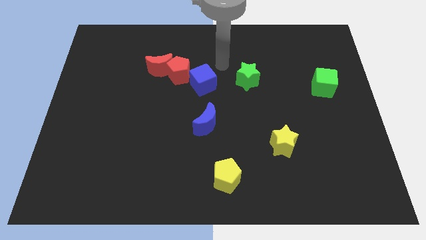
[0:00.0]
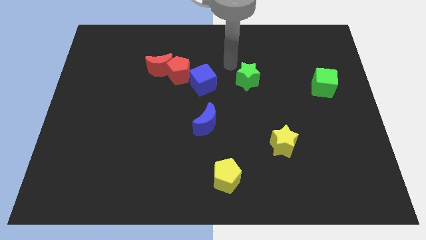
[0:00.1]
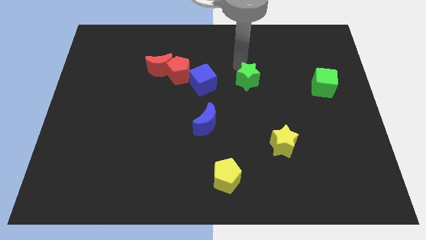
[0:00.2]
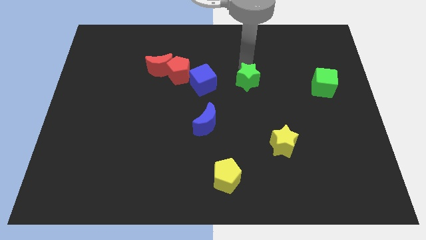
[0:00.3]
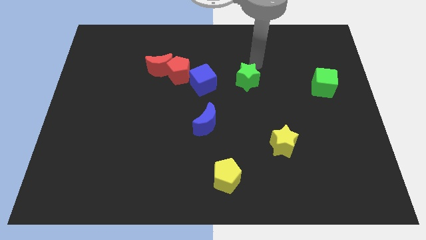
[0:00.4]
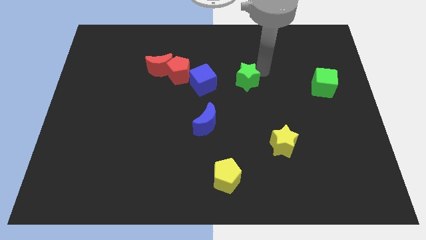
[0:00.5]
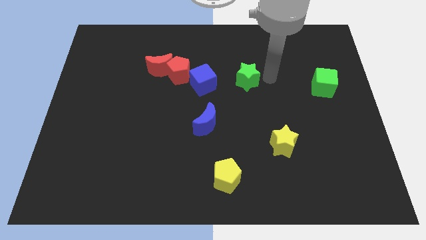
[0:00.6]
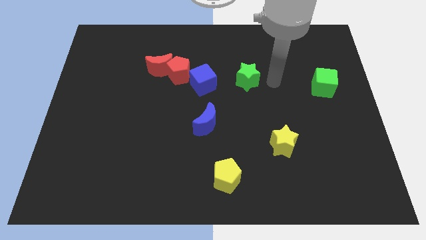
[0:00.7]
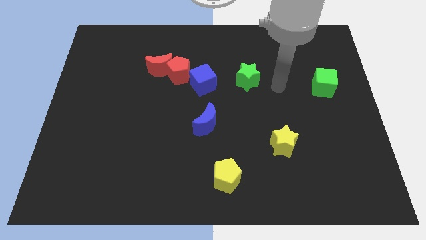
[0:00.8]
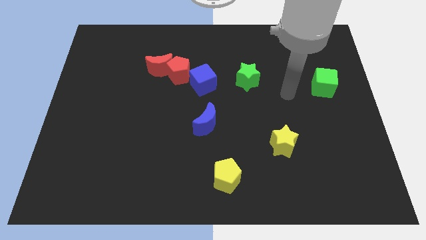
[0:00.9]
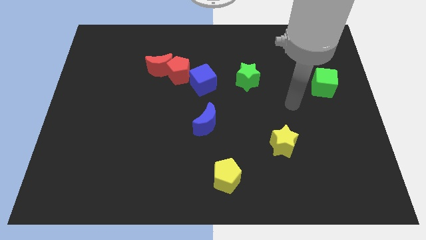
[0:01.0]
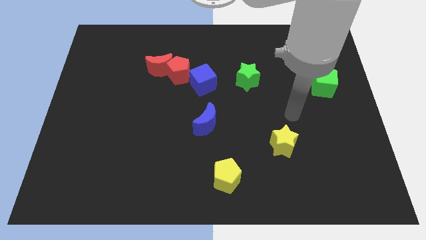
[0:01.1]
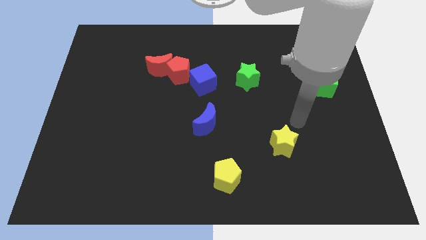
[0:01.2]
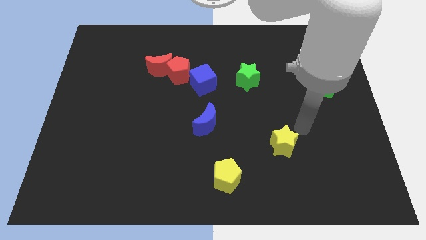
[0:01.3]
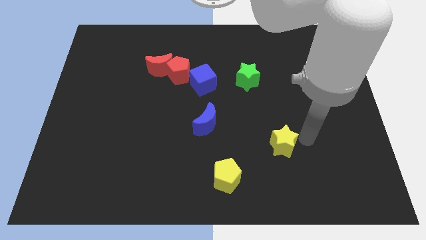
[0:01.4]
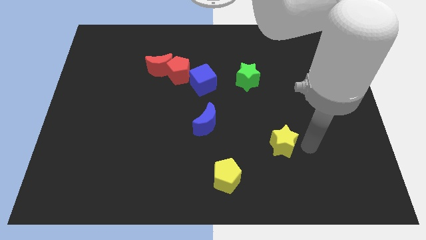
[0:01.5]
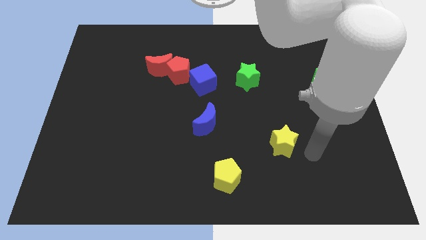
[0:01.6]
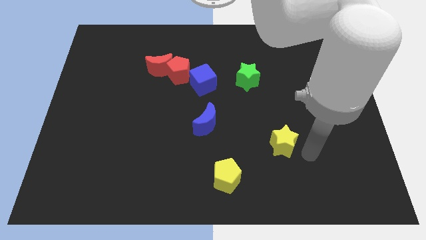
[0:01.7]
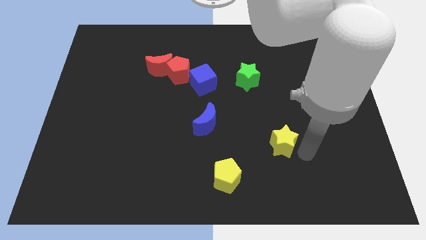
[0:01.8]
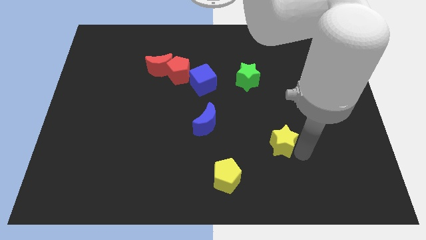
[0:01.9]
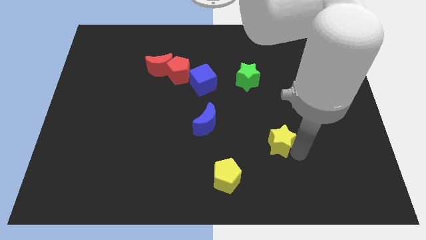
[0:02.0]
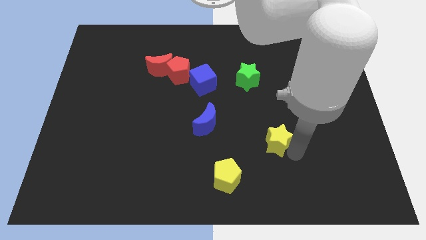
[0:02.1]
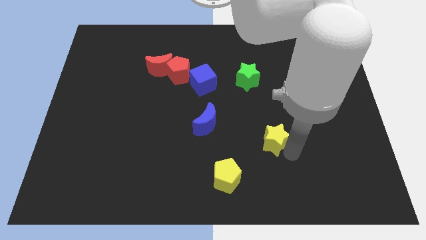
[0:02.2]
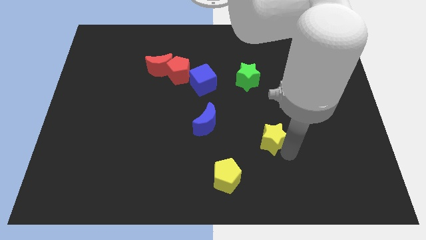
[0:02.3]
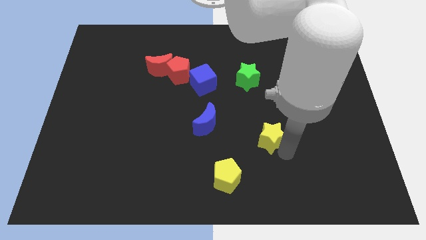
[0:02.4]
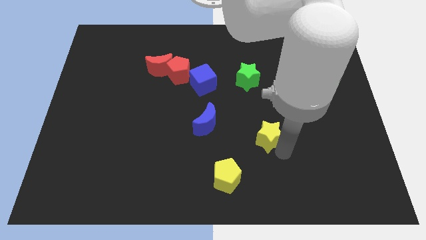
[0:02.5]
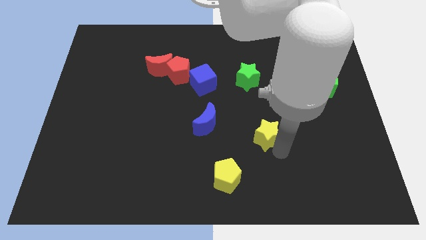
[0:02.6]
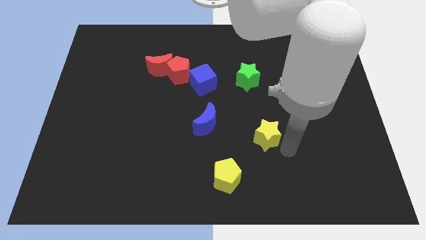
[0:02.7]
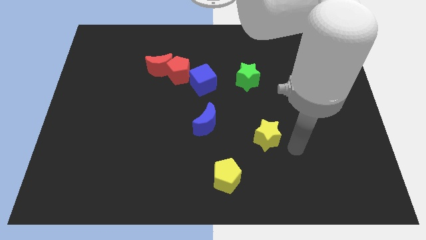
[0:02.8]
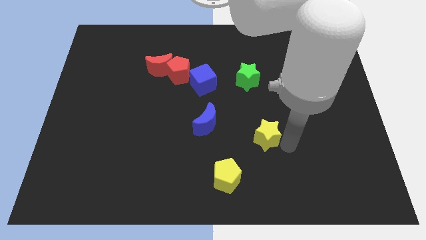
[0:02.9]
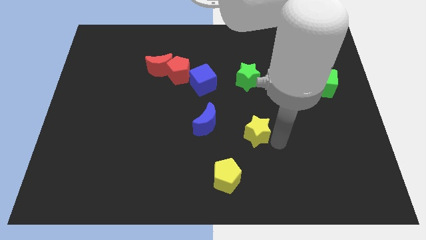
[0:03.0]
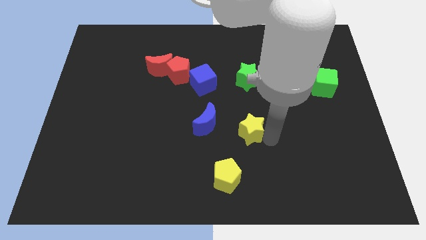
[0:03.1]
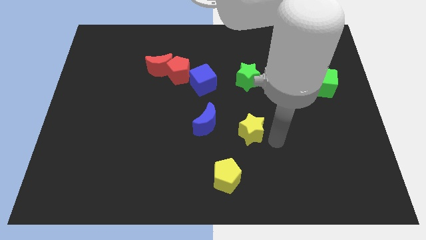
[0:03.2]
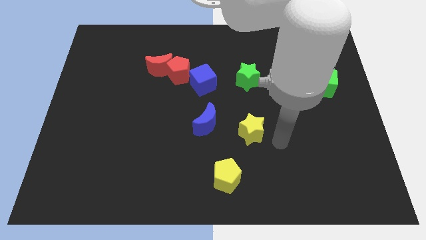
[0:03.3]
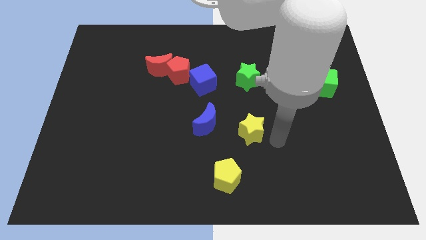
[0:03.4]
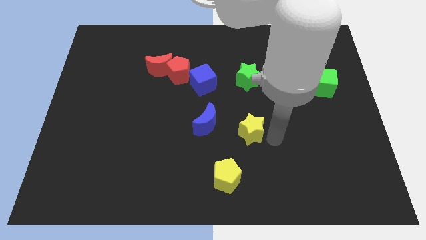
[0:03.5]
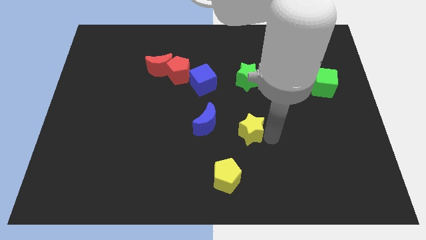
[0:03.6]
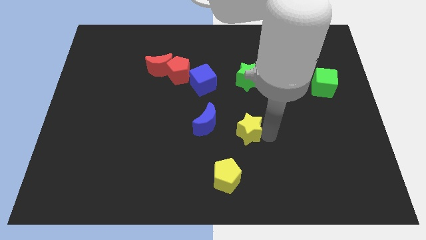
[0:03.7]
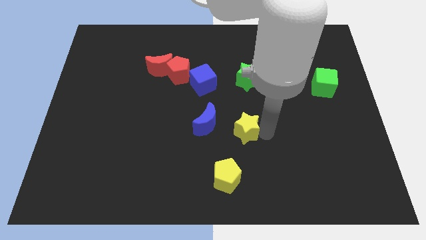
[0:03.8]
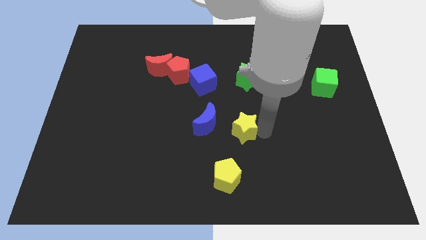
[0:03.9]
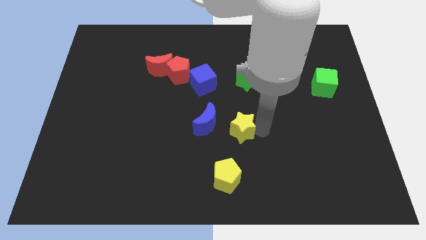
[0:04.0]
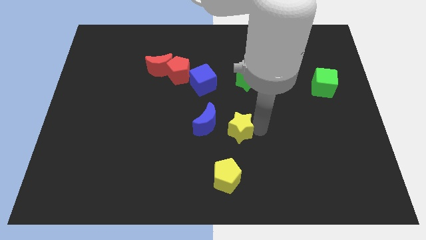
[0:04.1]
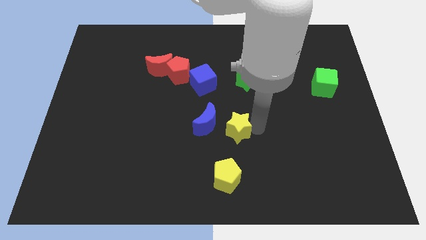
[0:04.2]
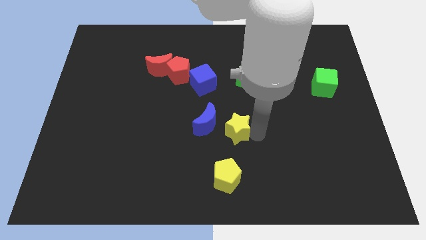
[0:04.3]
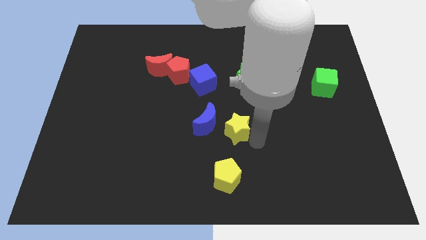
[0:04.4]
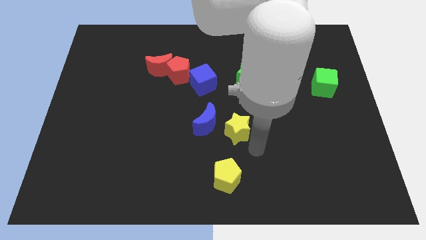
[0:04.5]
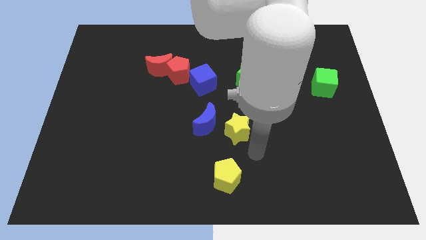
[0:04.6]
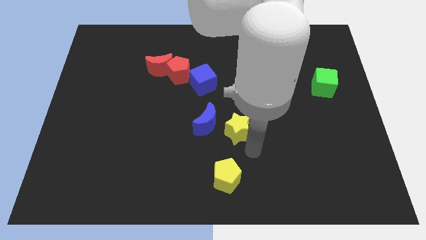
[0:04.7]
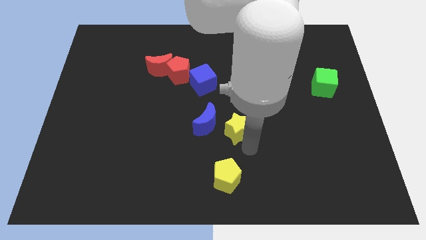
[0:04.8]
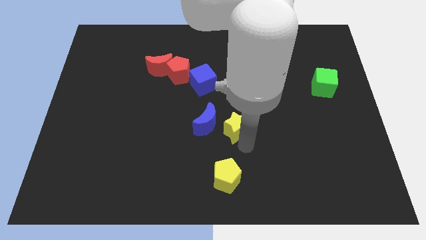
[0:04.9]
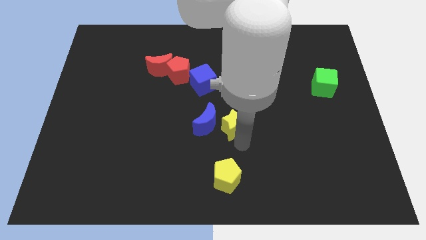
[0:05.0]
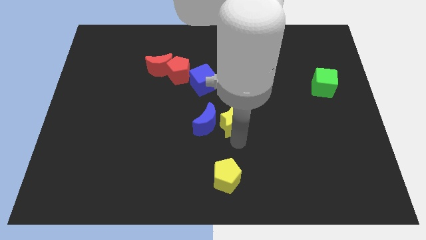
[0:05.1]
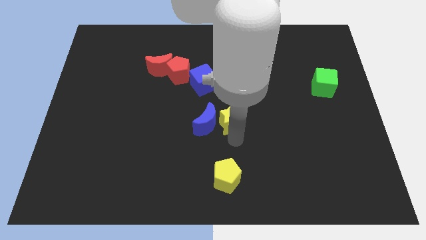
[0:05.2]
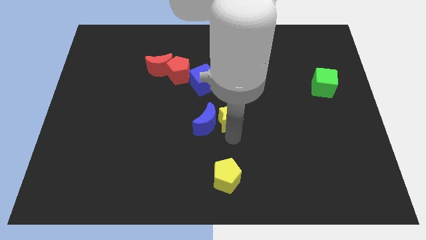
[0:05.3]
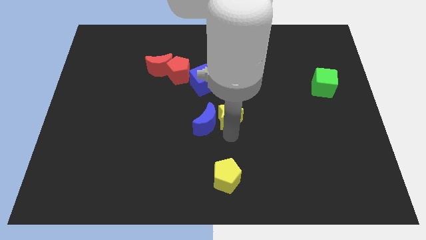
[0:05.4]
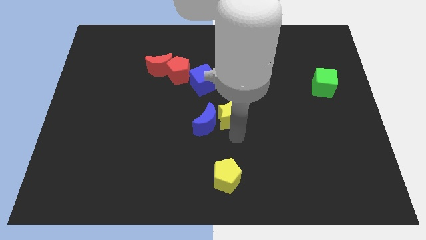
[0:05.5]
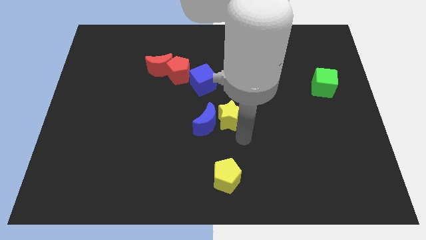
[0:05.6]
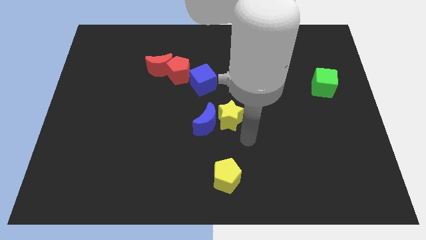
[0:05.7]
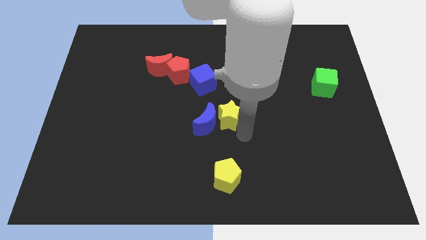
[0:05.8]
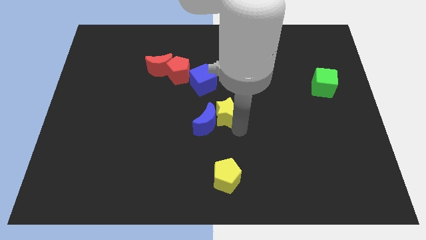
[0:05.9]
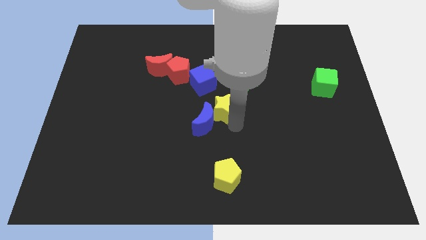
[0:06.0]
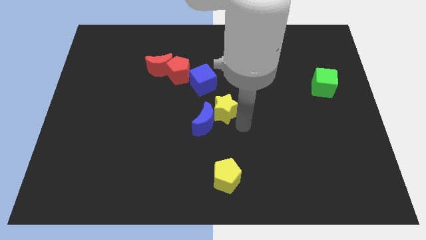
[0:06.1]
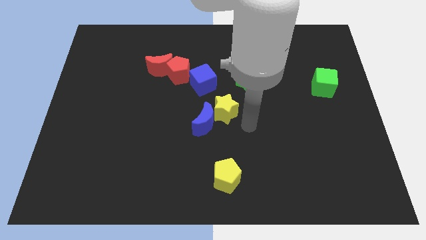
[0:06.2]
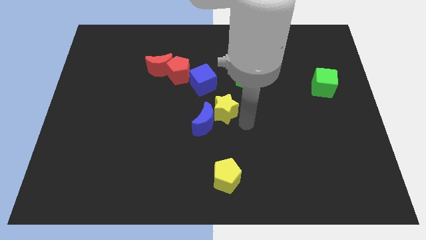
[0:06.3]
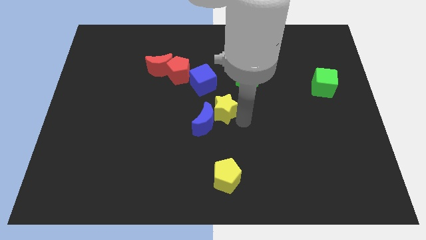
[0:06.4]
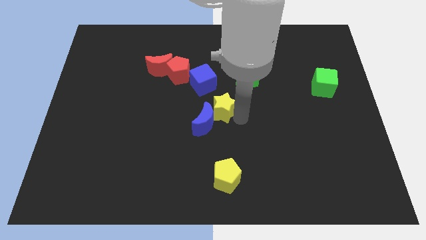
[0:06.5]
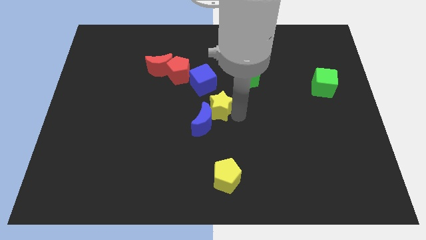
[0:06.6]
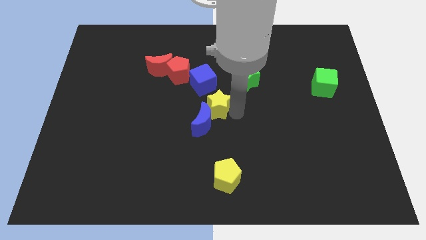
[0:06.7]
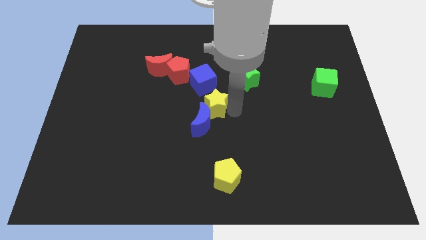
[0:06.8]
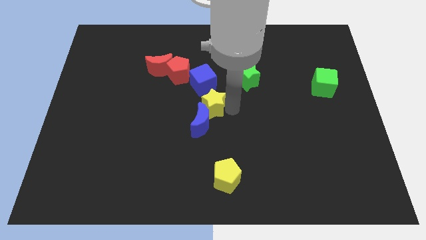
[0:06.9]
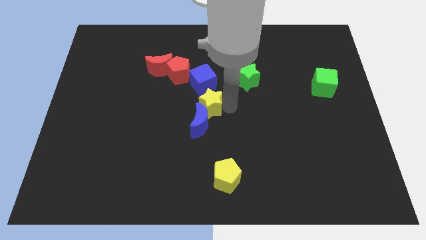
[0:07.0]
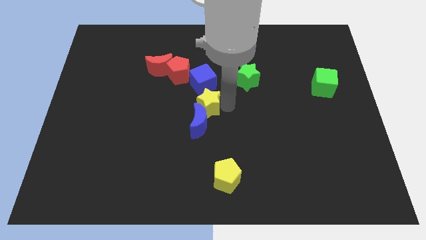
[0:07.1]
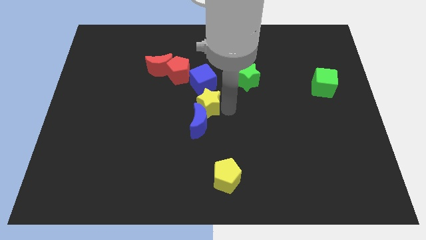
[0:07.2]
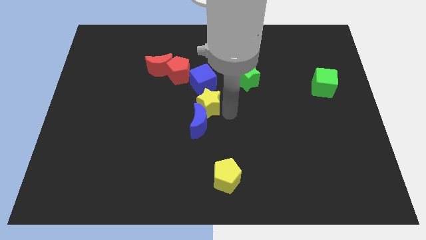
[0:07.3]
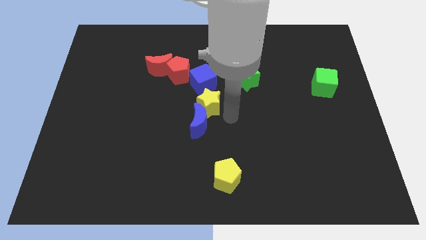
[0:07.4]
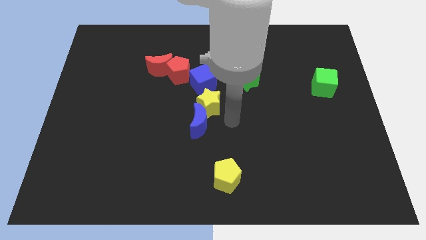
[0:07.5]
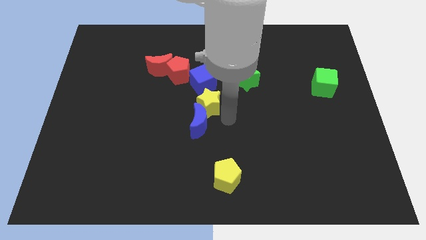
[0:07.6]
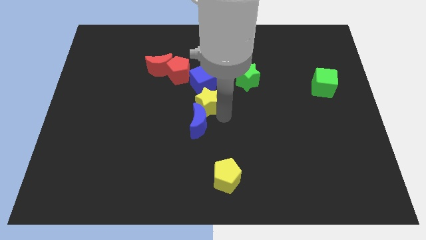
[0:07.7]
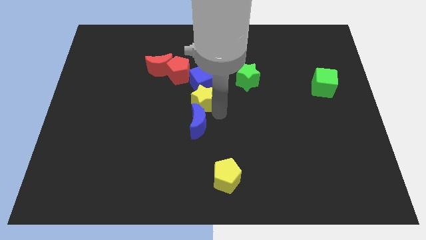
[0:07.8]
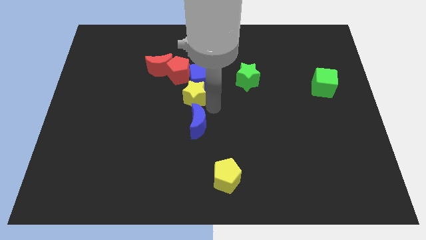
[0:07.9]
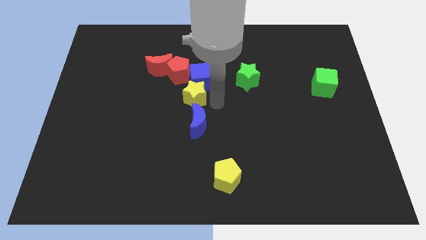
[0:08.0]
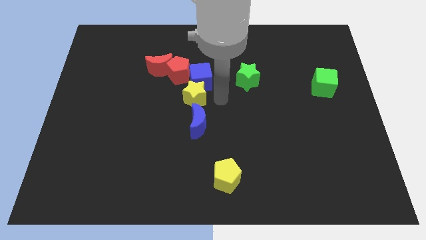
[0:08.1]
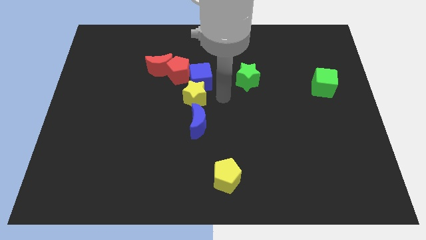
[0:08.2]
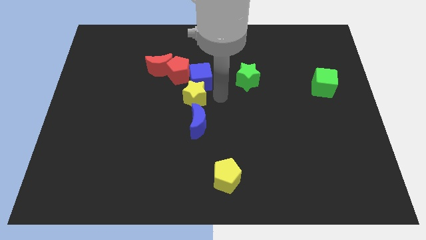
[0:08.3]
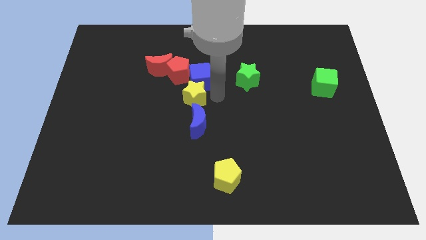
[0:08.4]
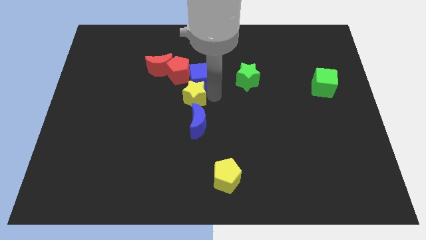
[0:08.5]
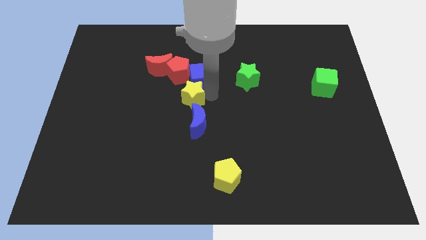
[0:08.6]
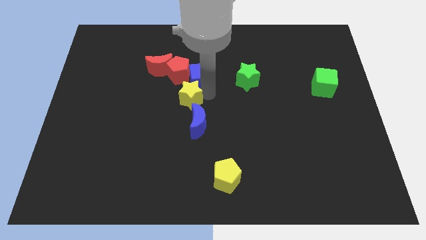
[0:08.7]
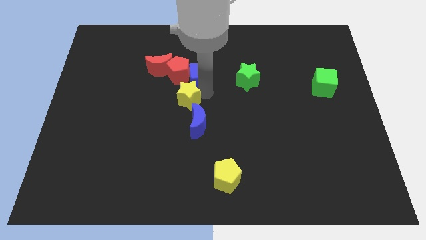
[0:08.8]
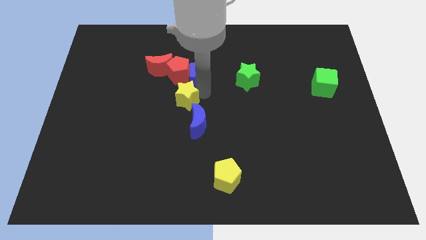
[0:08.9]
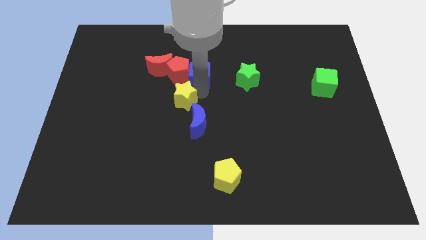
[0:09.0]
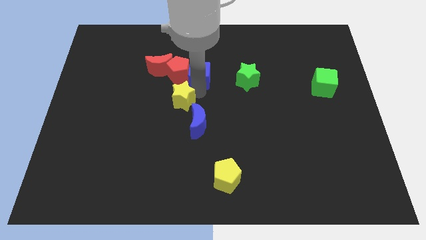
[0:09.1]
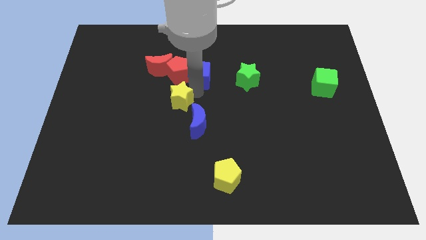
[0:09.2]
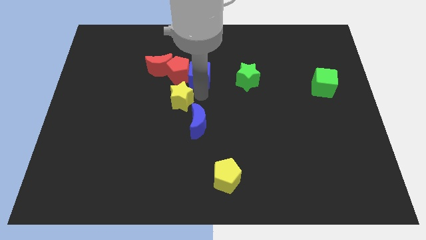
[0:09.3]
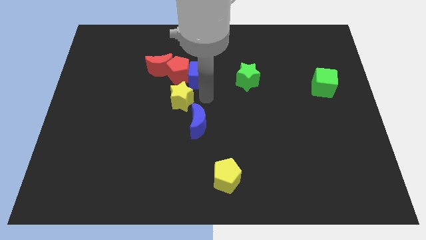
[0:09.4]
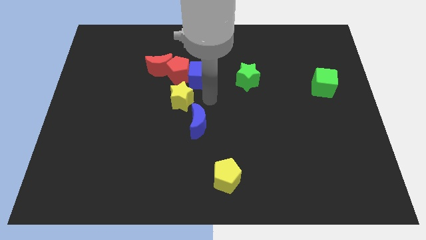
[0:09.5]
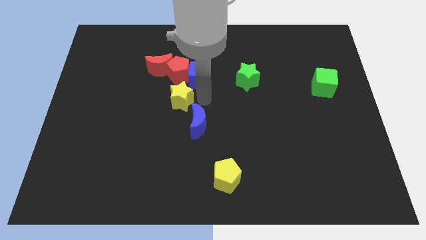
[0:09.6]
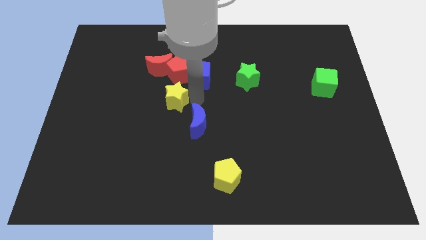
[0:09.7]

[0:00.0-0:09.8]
put the yellow star to the bottom of the red moon
